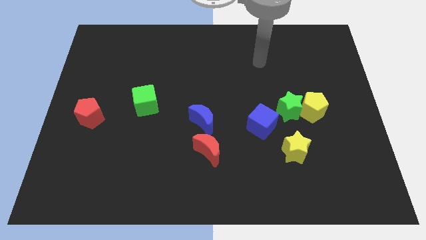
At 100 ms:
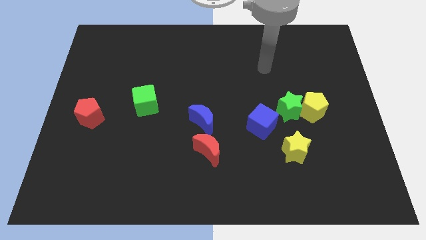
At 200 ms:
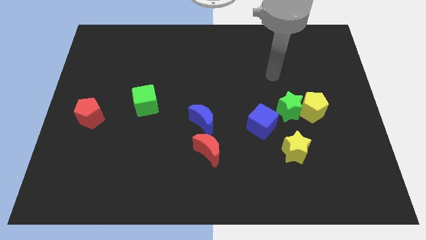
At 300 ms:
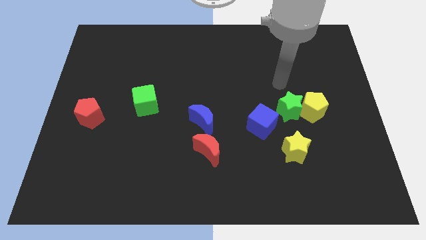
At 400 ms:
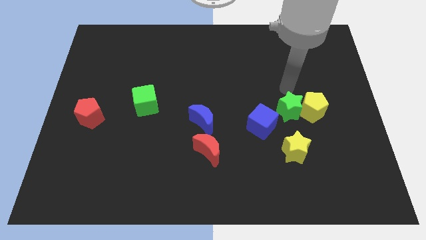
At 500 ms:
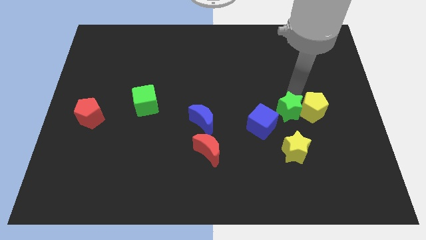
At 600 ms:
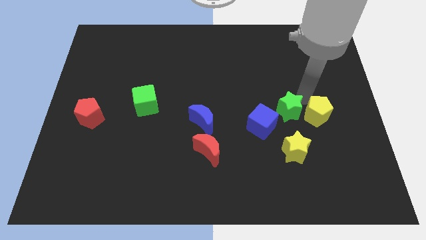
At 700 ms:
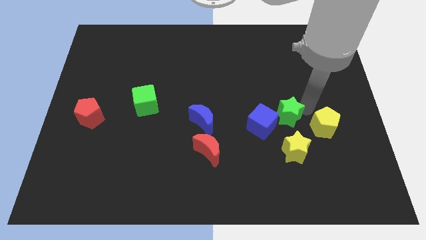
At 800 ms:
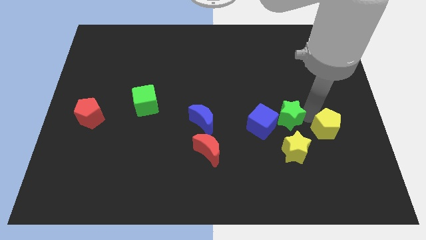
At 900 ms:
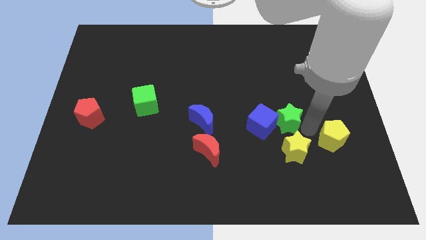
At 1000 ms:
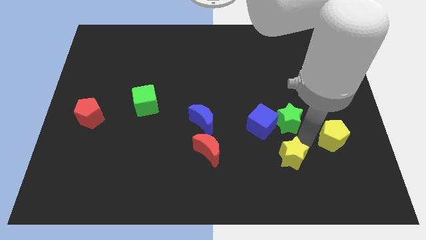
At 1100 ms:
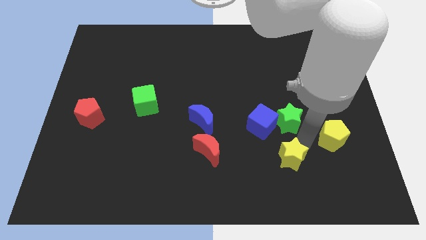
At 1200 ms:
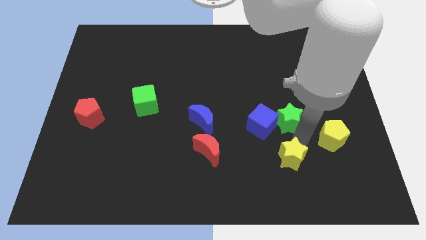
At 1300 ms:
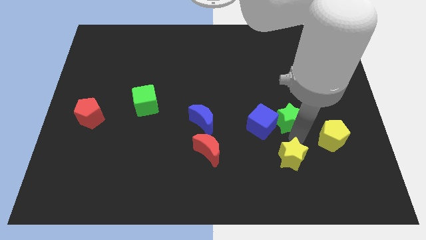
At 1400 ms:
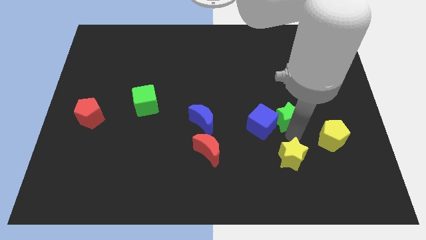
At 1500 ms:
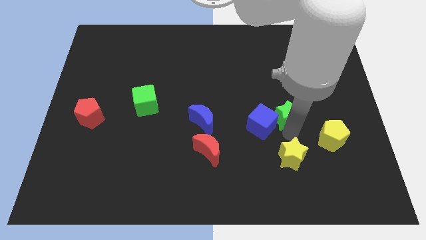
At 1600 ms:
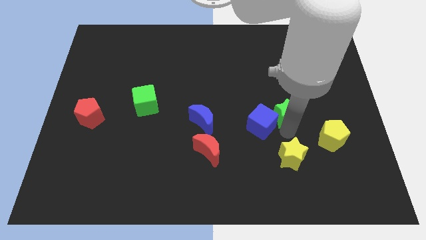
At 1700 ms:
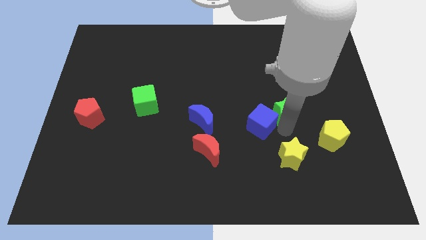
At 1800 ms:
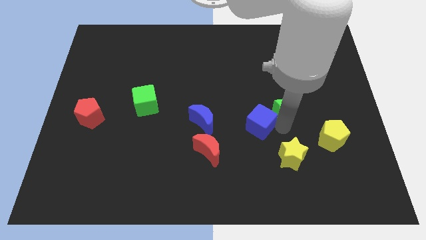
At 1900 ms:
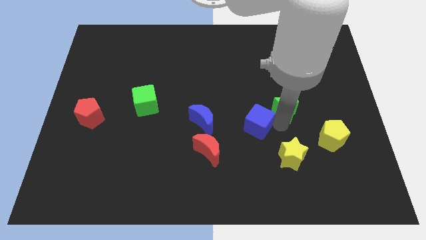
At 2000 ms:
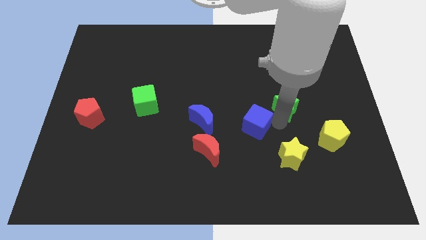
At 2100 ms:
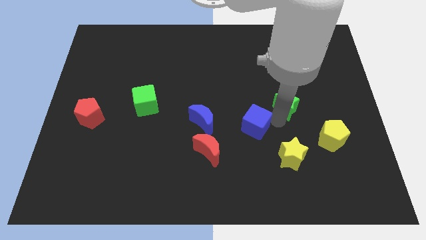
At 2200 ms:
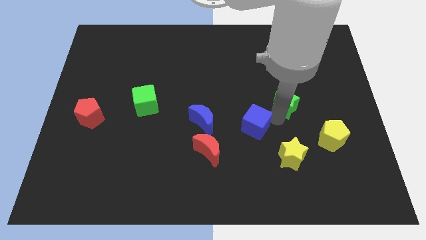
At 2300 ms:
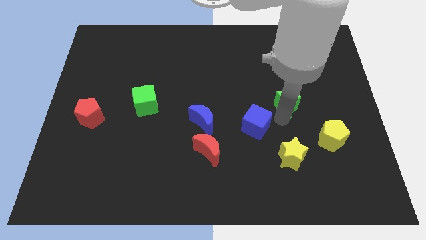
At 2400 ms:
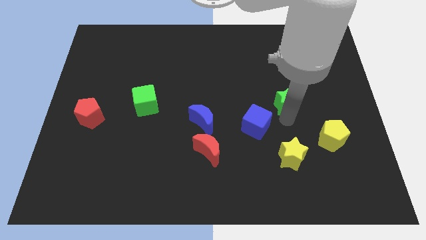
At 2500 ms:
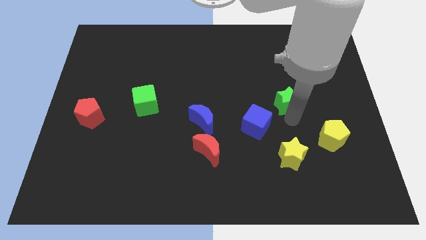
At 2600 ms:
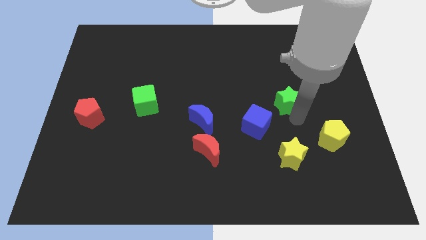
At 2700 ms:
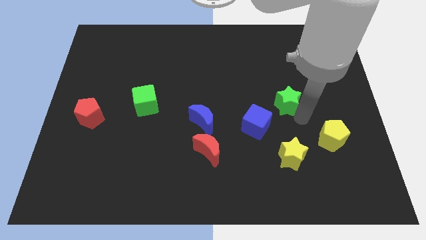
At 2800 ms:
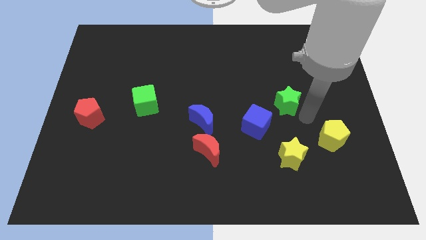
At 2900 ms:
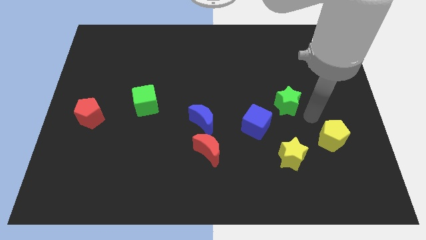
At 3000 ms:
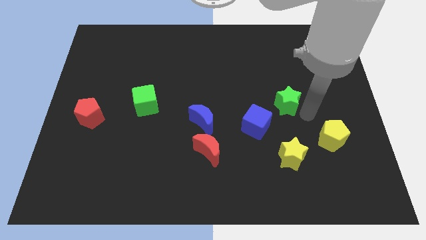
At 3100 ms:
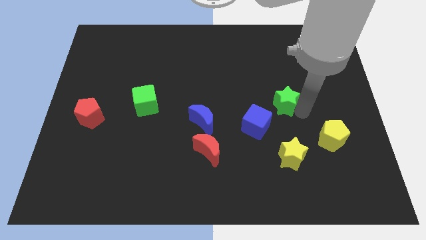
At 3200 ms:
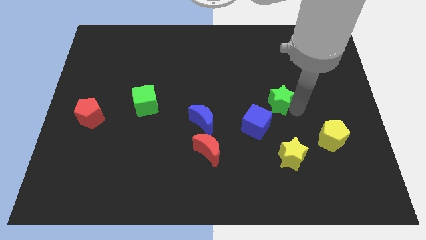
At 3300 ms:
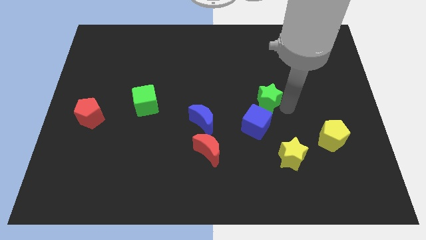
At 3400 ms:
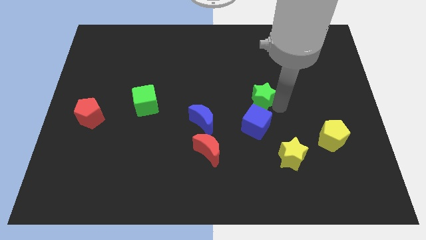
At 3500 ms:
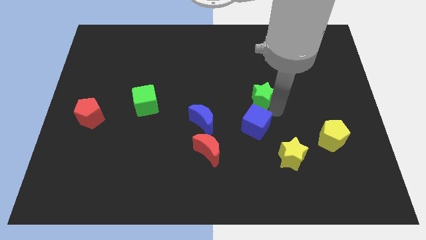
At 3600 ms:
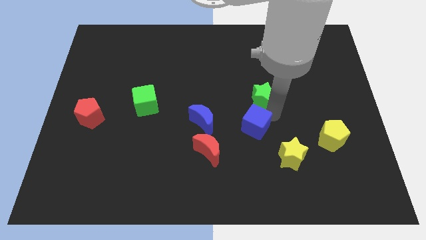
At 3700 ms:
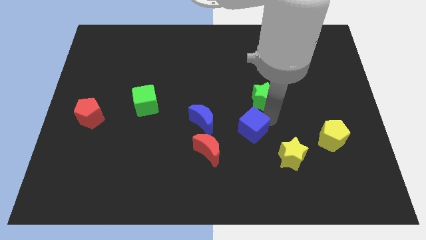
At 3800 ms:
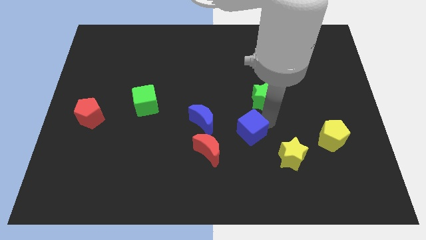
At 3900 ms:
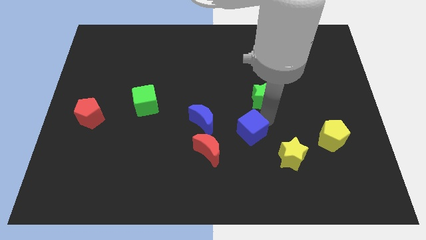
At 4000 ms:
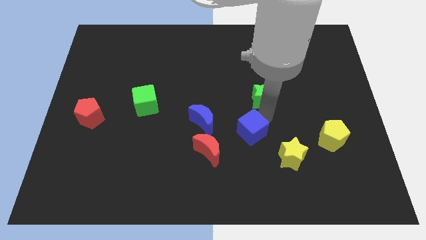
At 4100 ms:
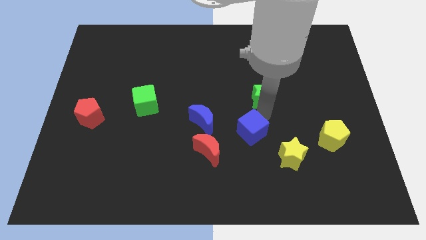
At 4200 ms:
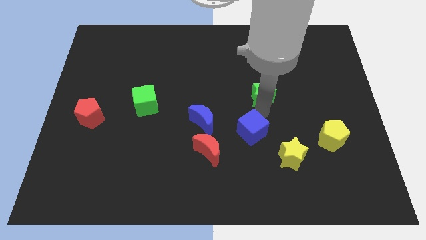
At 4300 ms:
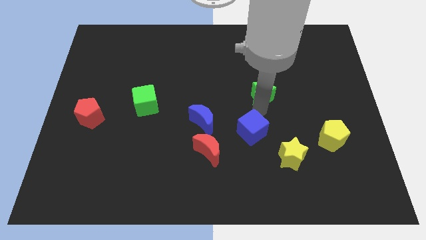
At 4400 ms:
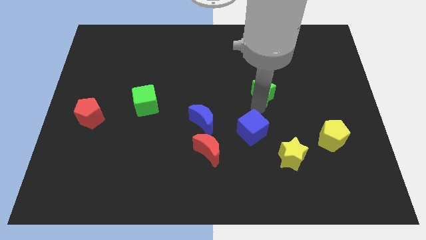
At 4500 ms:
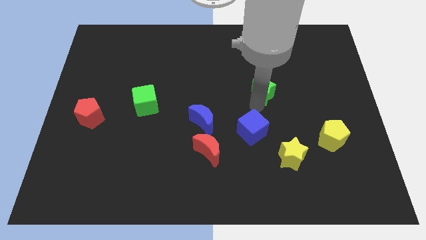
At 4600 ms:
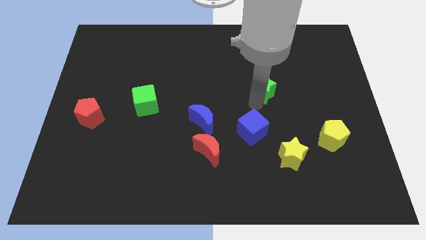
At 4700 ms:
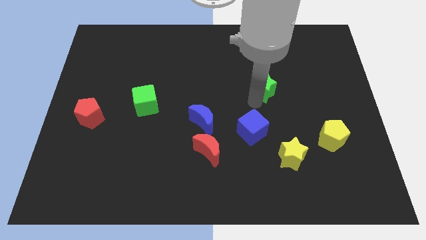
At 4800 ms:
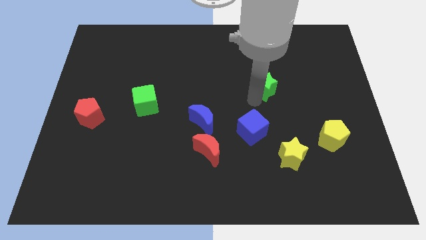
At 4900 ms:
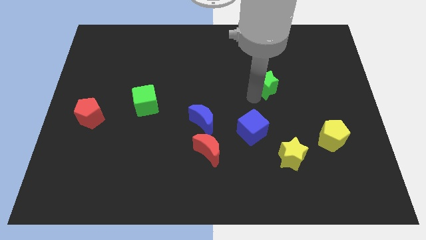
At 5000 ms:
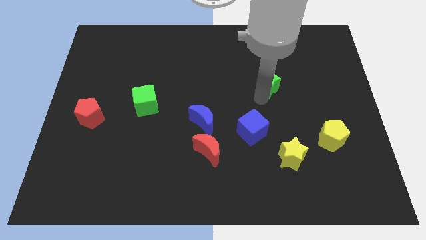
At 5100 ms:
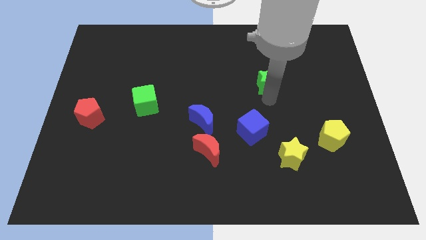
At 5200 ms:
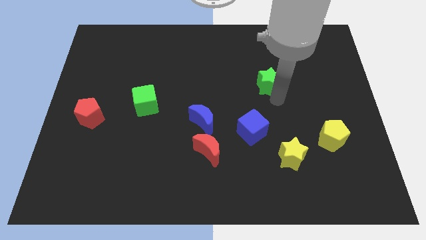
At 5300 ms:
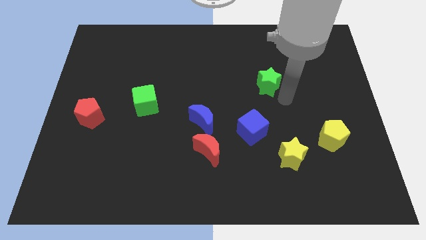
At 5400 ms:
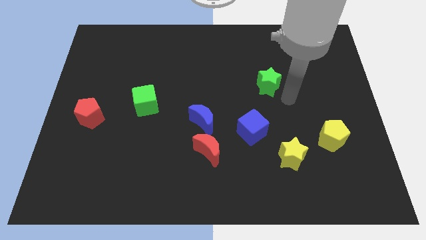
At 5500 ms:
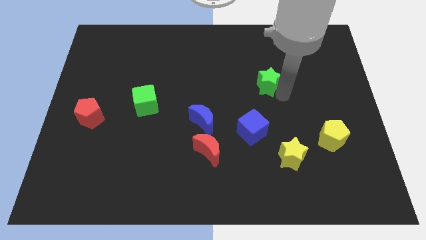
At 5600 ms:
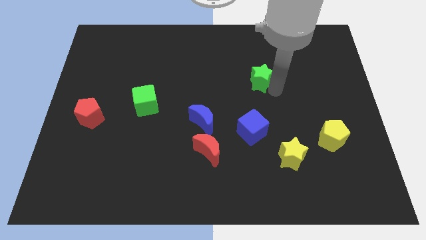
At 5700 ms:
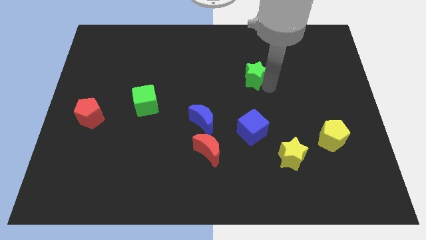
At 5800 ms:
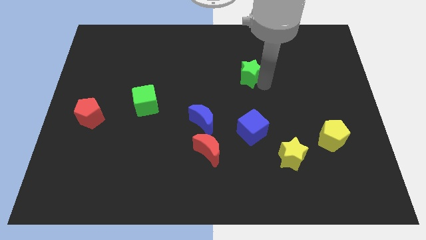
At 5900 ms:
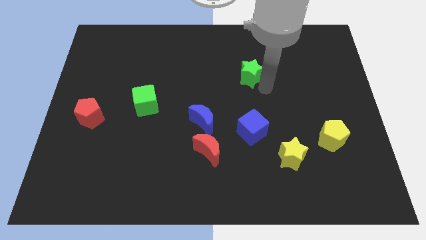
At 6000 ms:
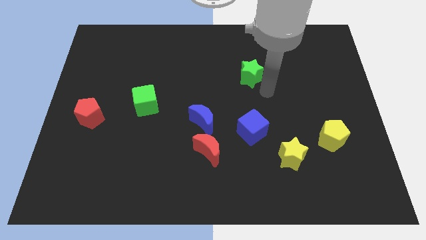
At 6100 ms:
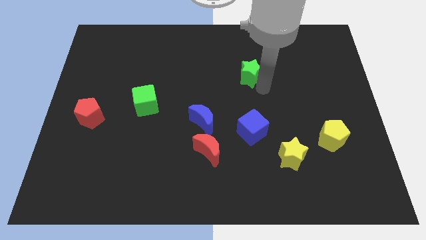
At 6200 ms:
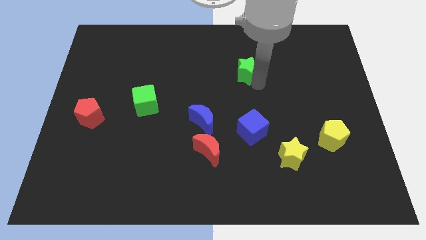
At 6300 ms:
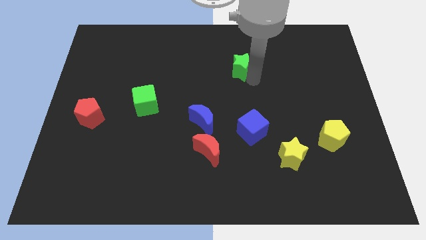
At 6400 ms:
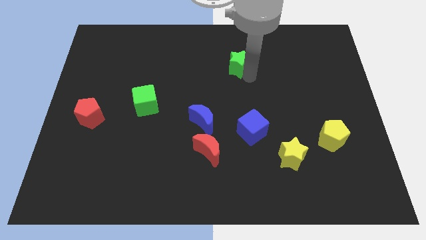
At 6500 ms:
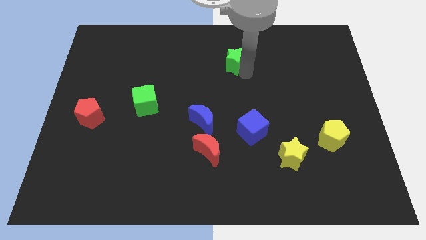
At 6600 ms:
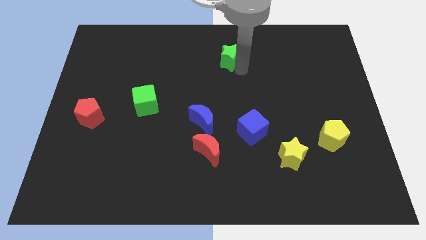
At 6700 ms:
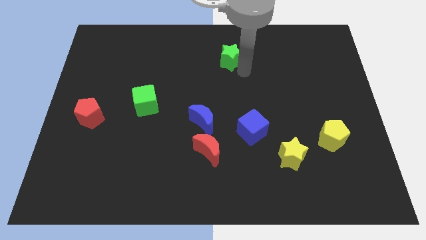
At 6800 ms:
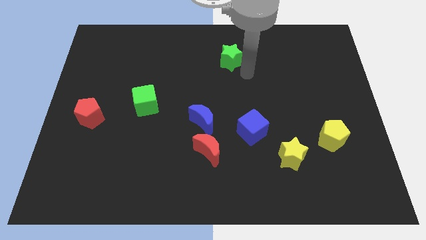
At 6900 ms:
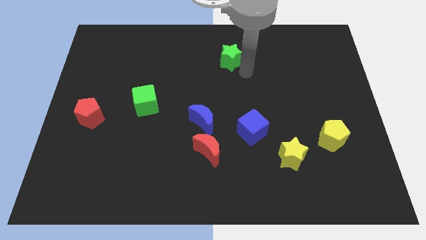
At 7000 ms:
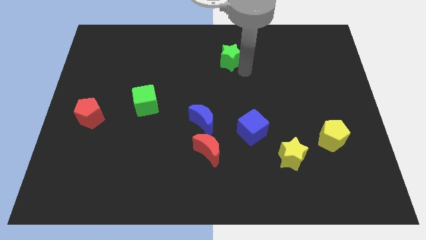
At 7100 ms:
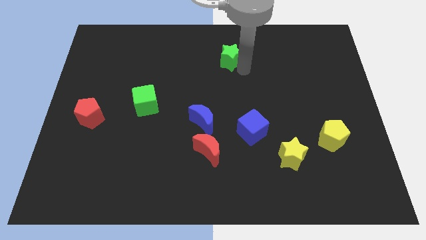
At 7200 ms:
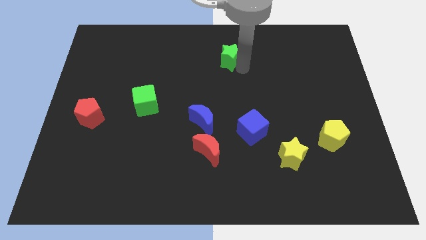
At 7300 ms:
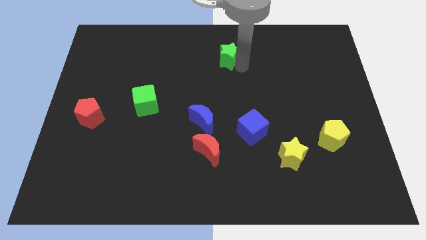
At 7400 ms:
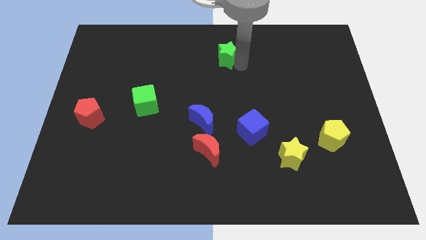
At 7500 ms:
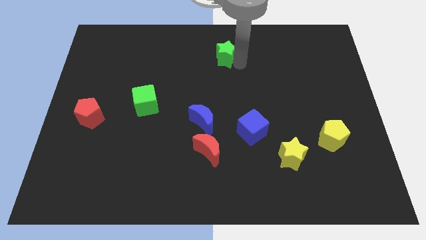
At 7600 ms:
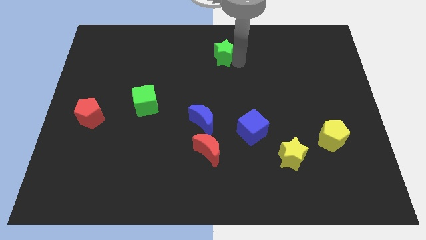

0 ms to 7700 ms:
slide the green star to the top
